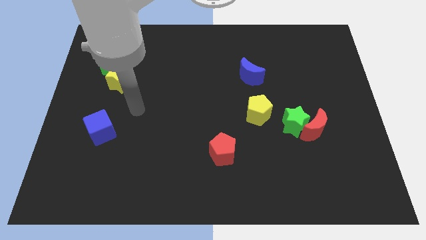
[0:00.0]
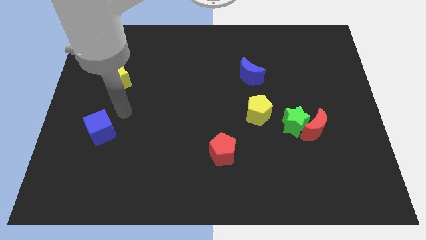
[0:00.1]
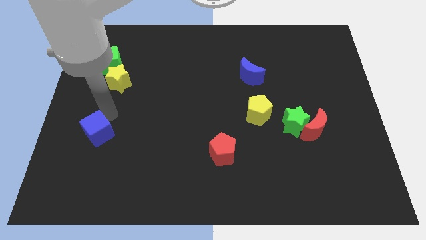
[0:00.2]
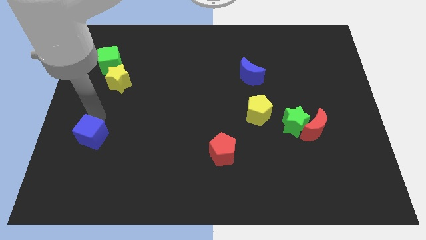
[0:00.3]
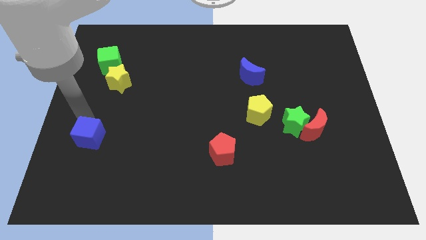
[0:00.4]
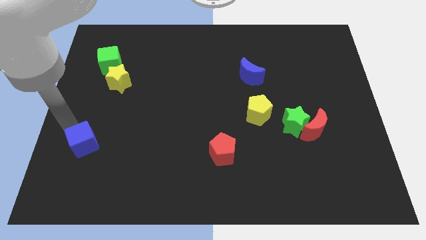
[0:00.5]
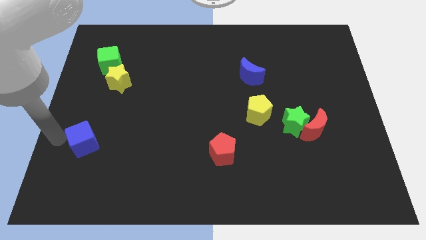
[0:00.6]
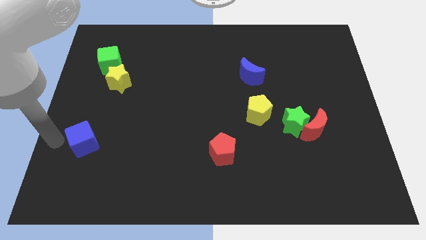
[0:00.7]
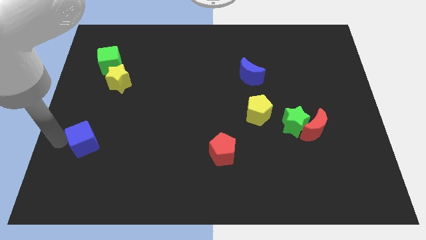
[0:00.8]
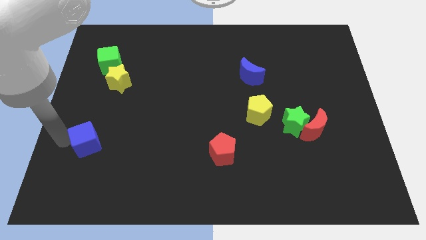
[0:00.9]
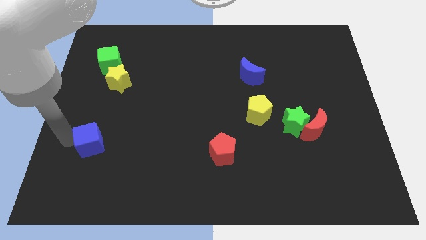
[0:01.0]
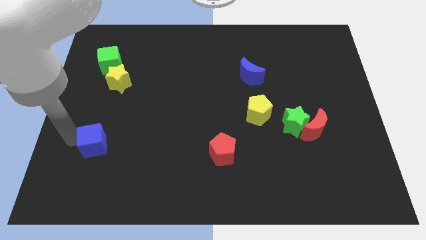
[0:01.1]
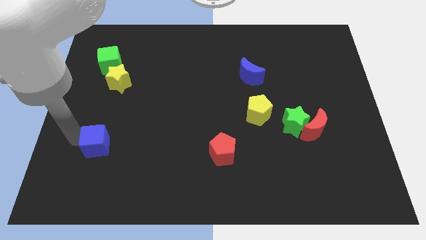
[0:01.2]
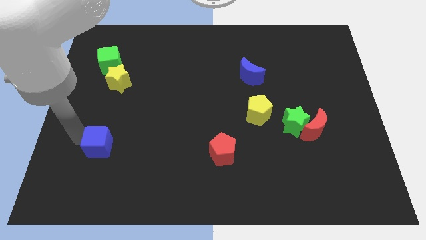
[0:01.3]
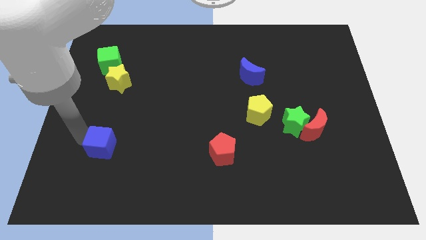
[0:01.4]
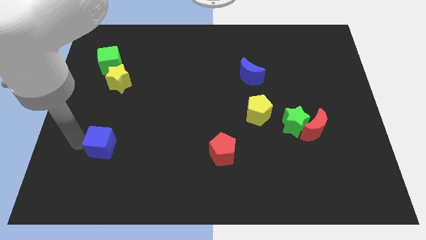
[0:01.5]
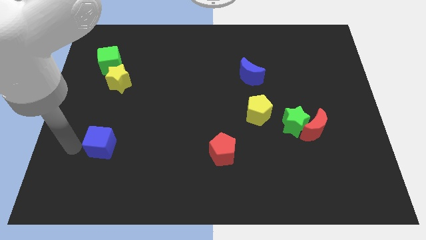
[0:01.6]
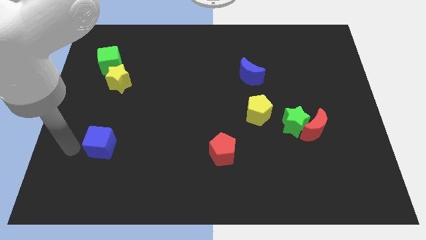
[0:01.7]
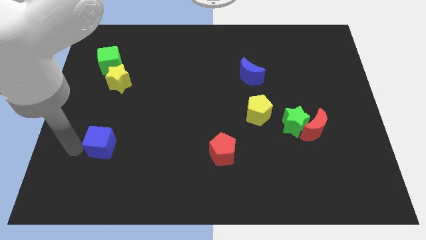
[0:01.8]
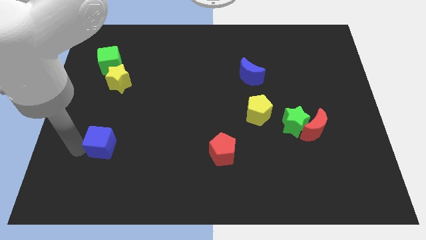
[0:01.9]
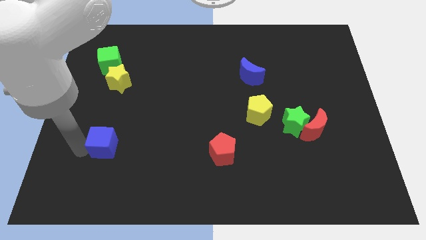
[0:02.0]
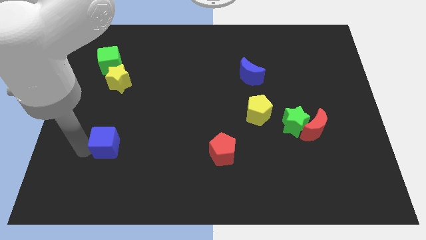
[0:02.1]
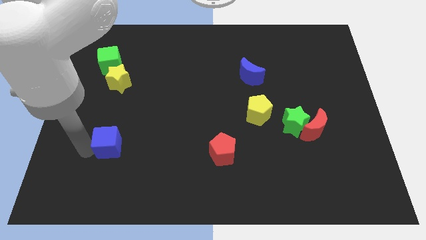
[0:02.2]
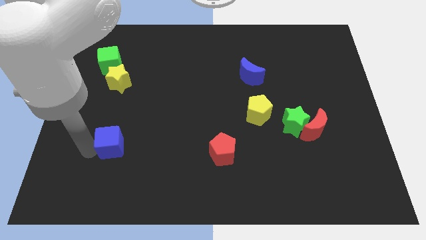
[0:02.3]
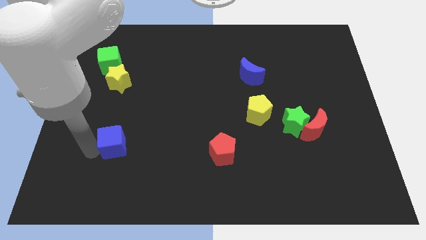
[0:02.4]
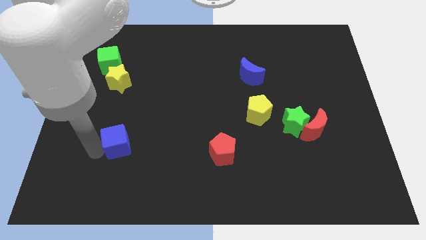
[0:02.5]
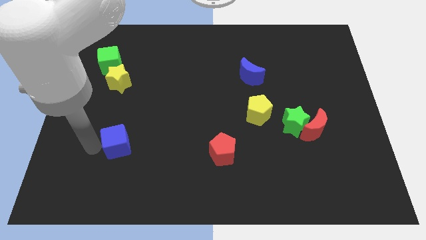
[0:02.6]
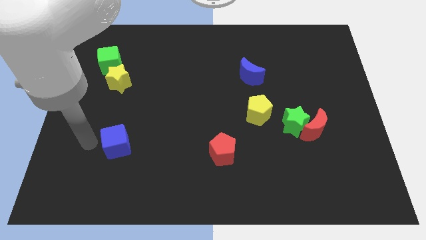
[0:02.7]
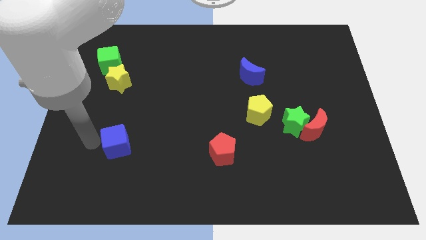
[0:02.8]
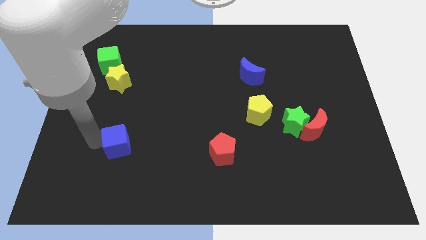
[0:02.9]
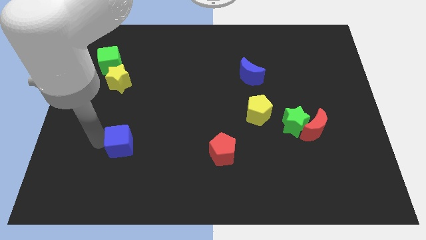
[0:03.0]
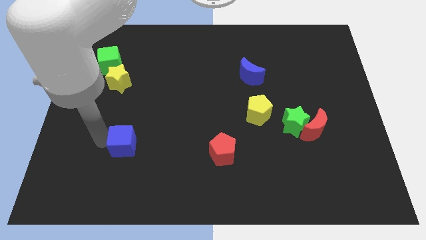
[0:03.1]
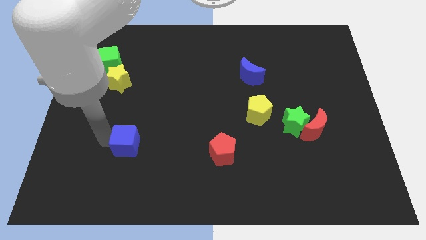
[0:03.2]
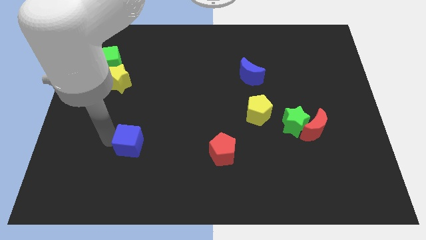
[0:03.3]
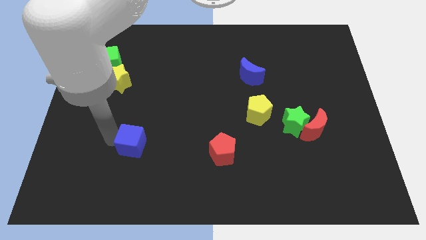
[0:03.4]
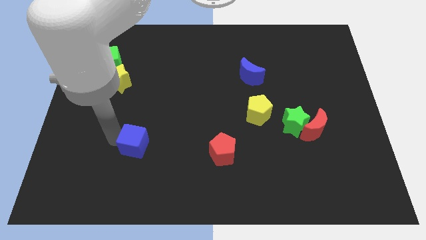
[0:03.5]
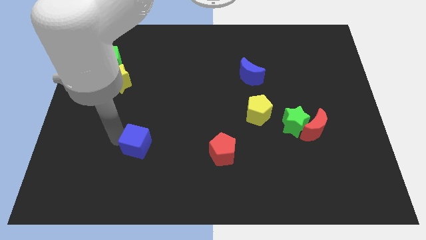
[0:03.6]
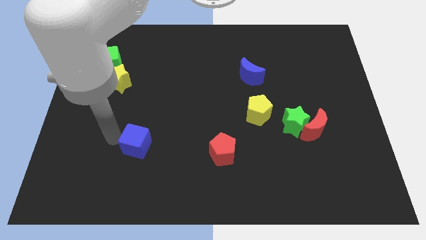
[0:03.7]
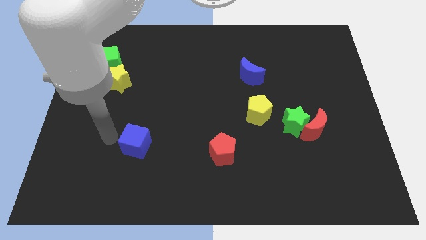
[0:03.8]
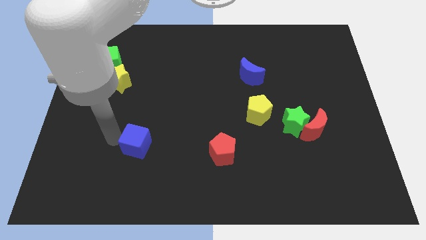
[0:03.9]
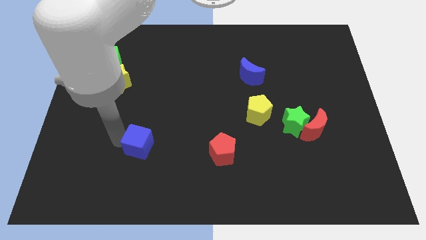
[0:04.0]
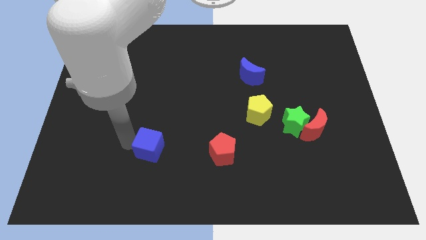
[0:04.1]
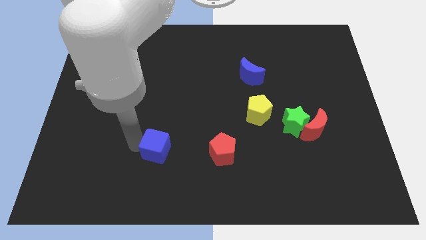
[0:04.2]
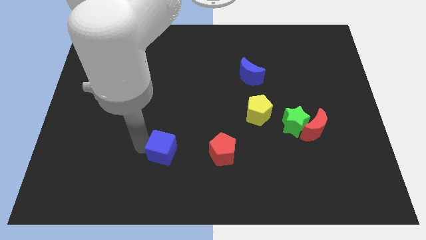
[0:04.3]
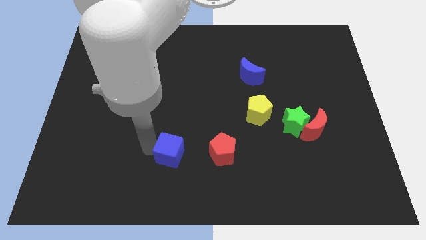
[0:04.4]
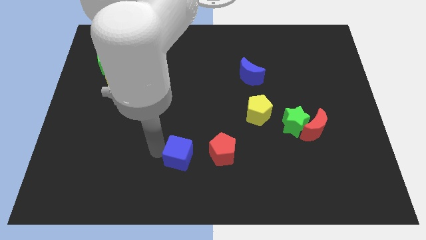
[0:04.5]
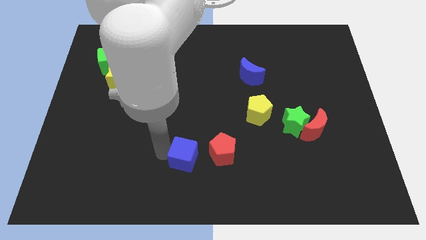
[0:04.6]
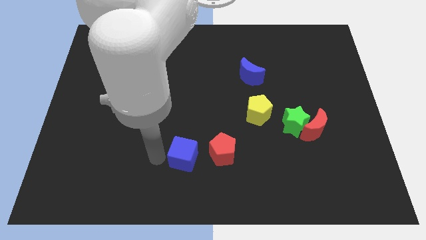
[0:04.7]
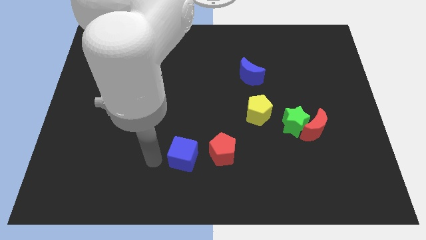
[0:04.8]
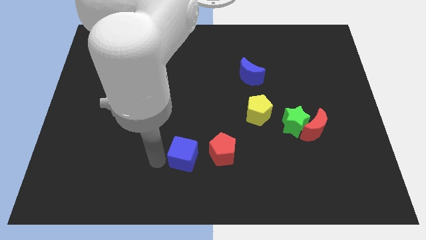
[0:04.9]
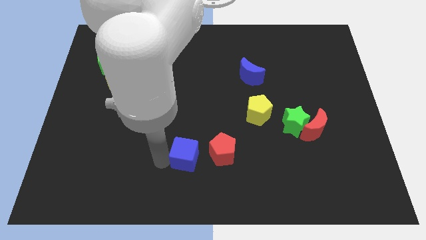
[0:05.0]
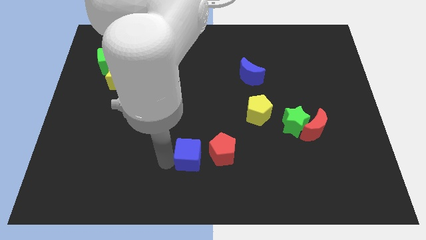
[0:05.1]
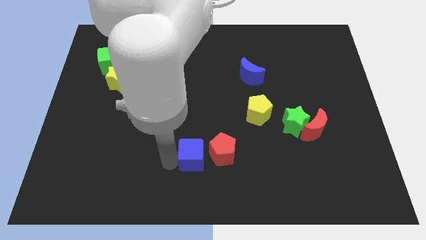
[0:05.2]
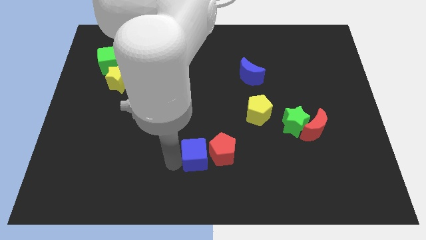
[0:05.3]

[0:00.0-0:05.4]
push the blue cube to the red pentagon

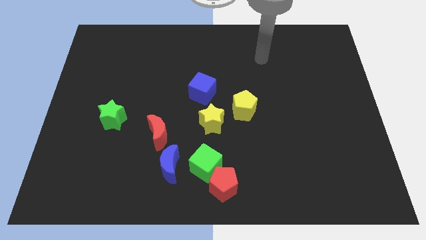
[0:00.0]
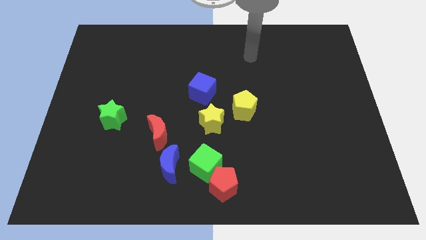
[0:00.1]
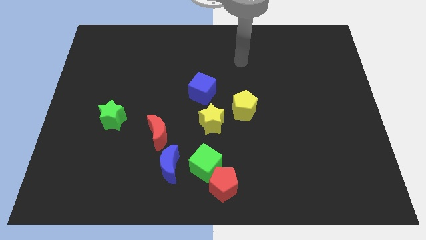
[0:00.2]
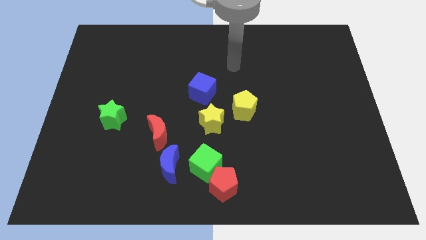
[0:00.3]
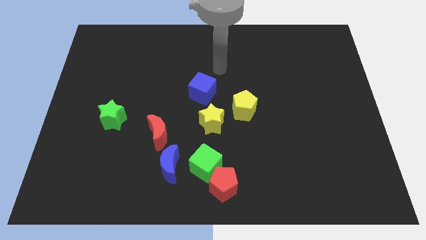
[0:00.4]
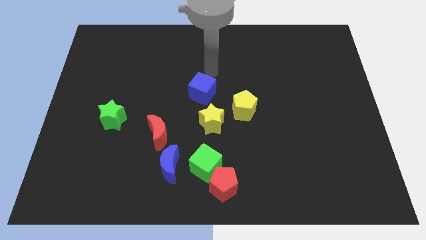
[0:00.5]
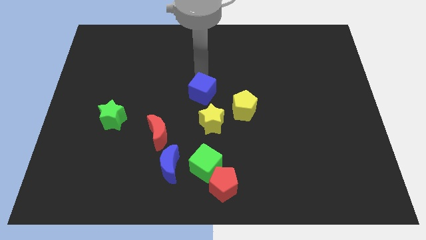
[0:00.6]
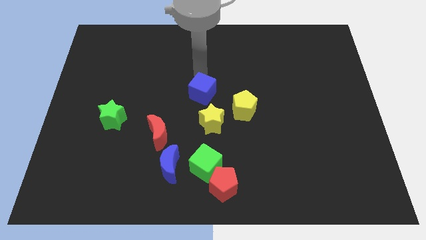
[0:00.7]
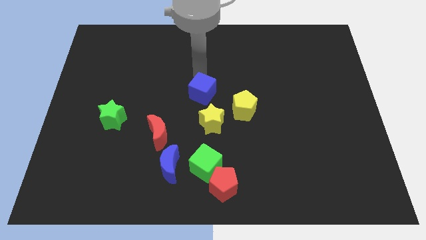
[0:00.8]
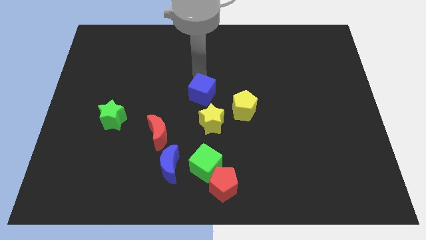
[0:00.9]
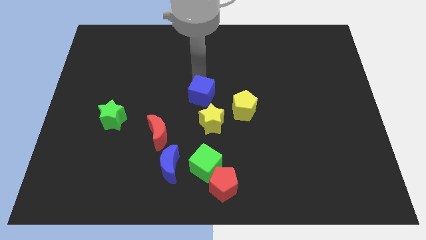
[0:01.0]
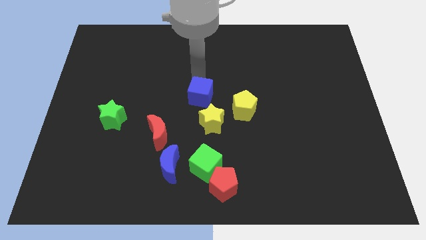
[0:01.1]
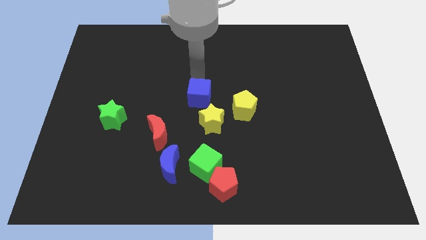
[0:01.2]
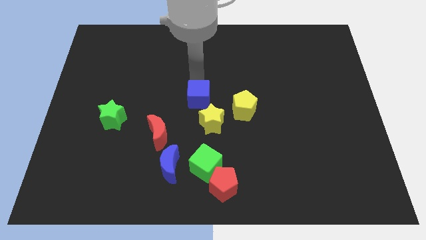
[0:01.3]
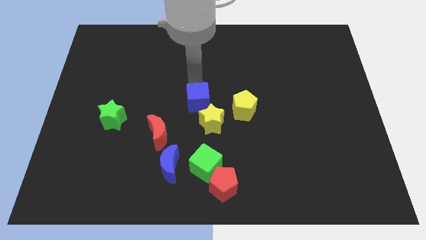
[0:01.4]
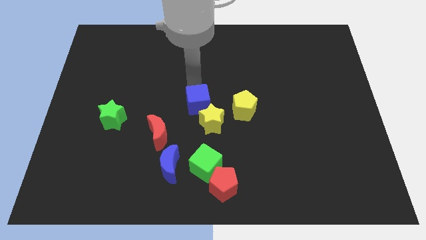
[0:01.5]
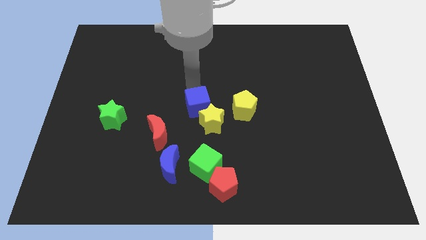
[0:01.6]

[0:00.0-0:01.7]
slide the blue cube towards the yellow star
